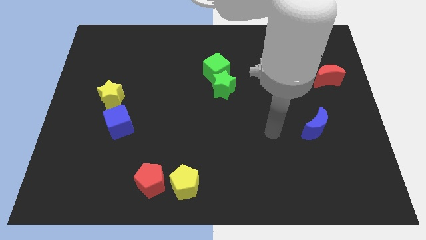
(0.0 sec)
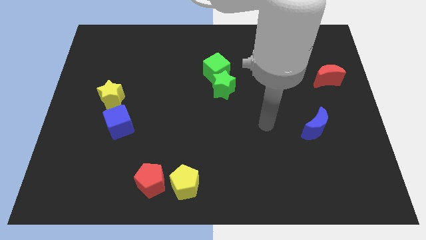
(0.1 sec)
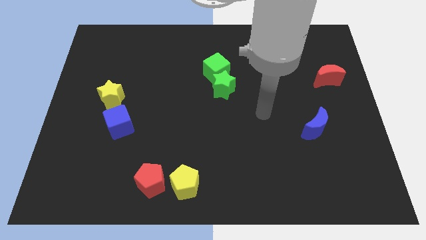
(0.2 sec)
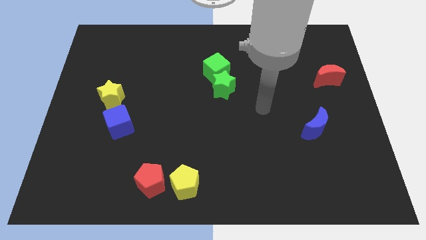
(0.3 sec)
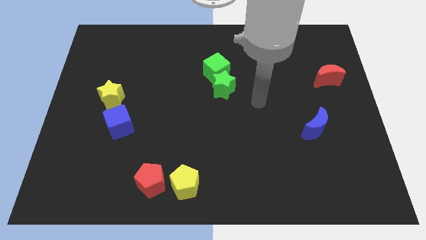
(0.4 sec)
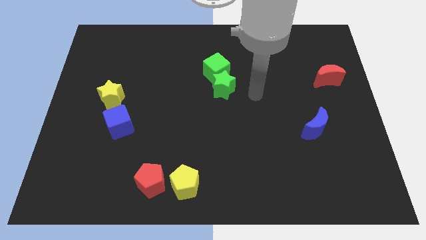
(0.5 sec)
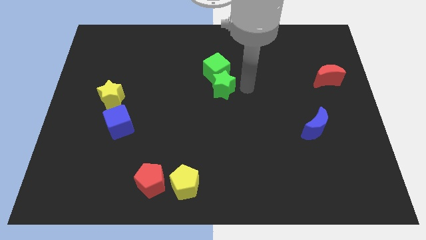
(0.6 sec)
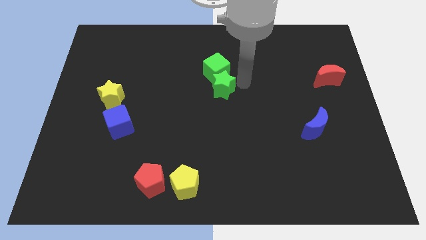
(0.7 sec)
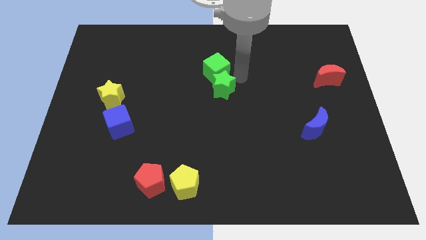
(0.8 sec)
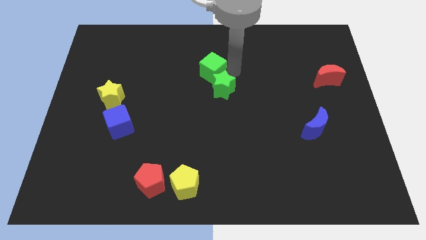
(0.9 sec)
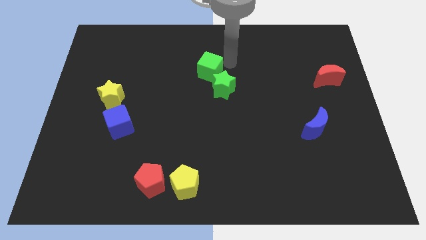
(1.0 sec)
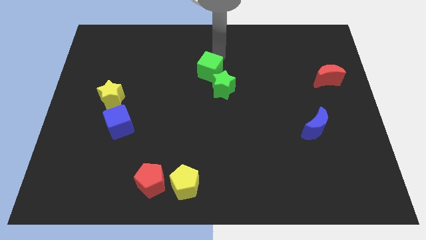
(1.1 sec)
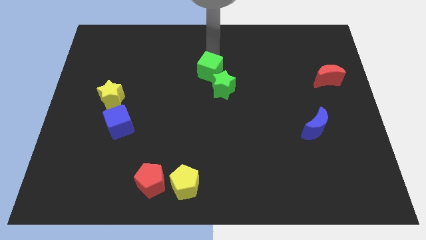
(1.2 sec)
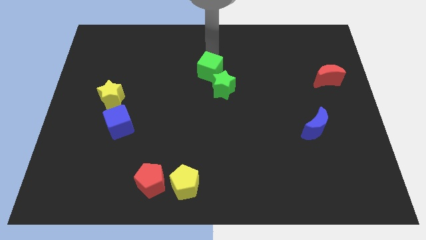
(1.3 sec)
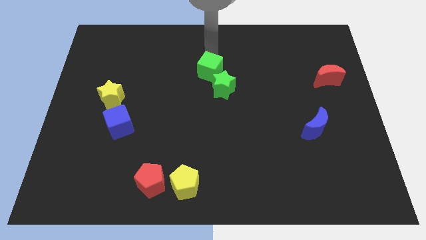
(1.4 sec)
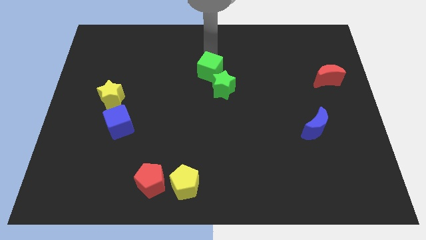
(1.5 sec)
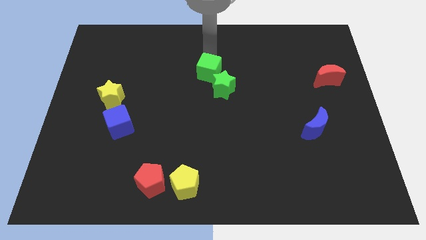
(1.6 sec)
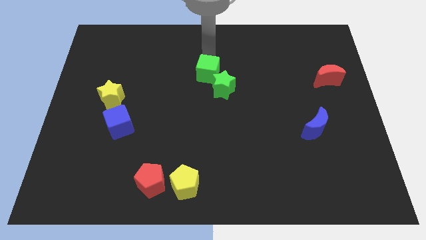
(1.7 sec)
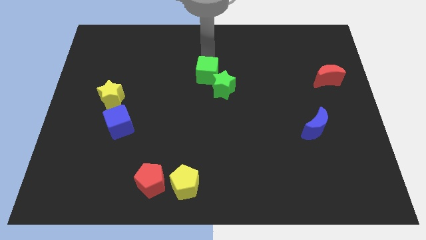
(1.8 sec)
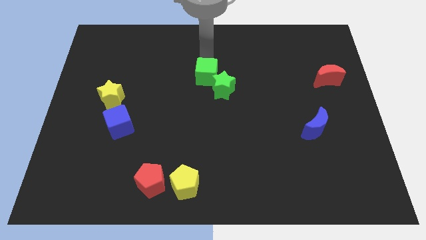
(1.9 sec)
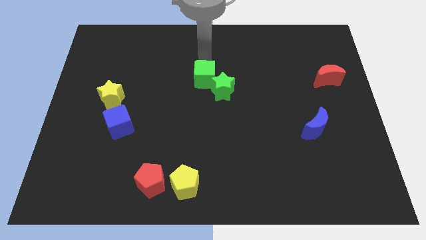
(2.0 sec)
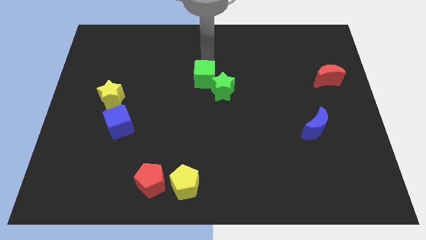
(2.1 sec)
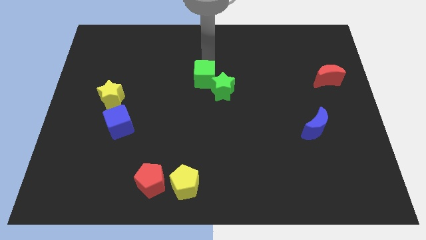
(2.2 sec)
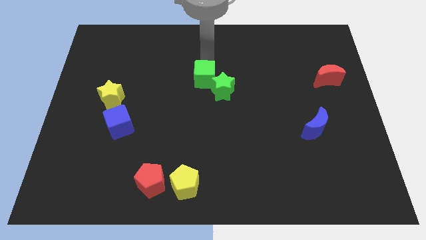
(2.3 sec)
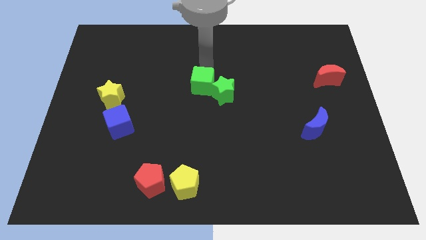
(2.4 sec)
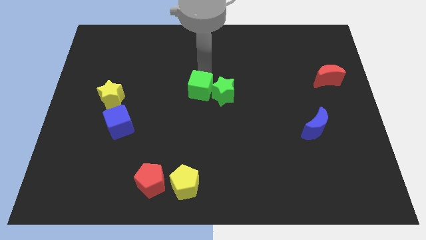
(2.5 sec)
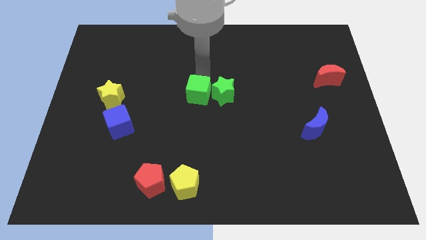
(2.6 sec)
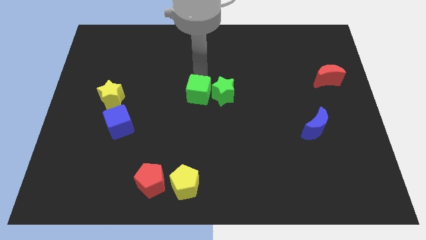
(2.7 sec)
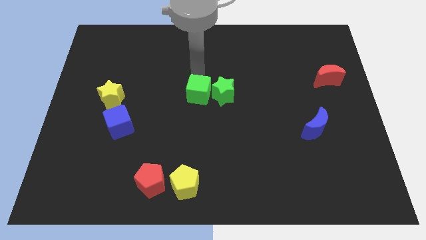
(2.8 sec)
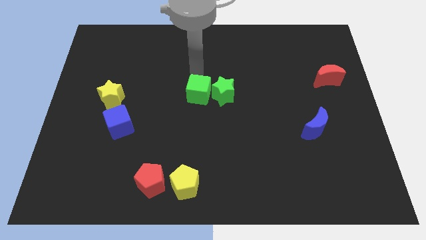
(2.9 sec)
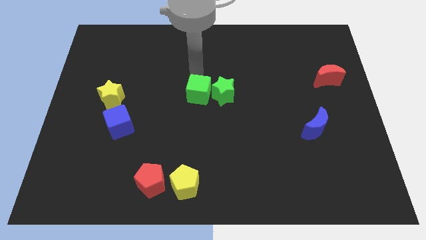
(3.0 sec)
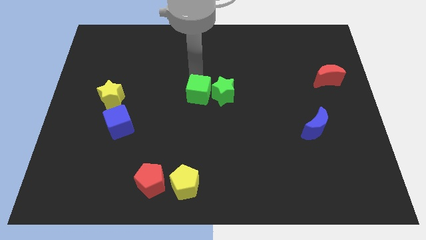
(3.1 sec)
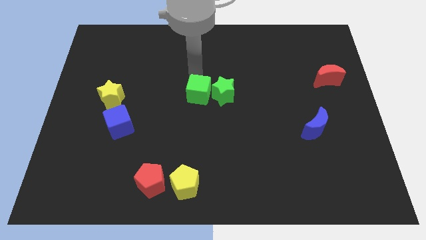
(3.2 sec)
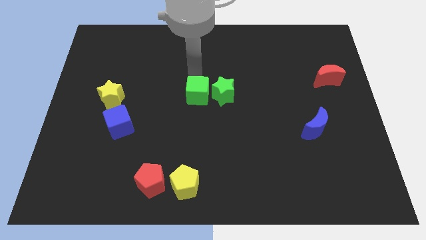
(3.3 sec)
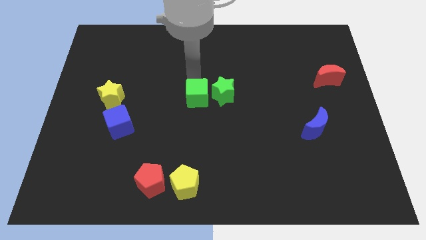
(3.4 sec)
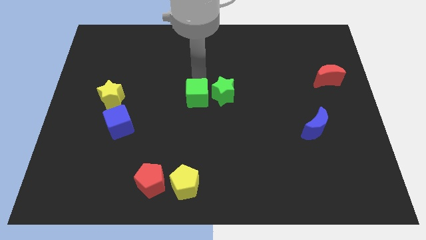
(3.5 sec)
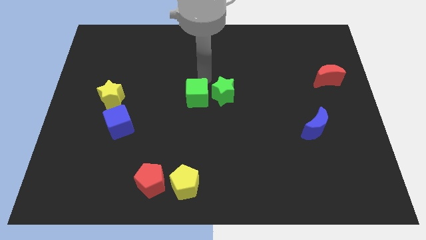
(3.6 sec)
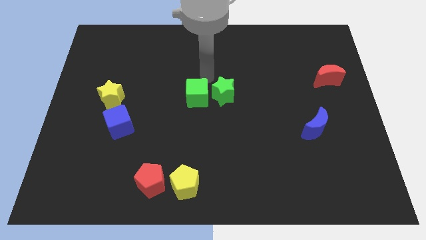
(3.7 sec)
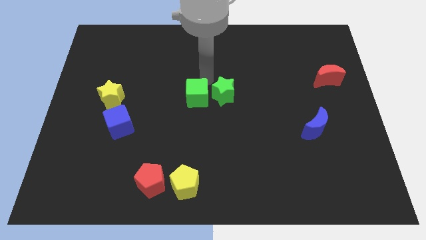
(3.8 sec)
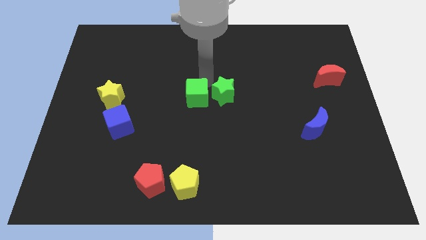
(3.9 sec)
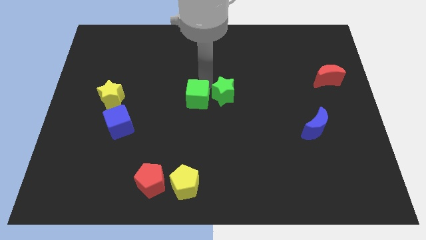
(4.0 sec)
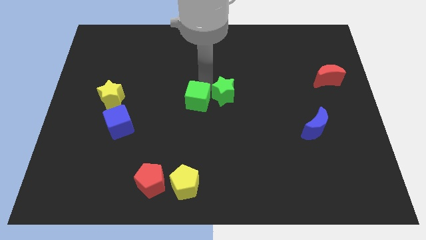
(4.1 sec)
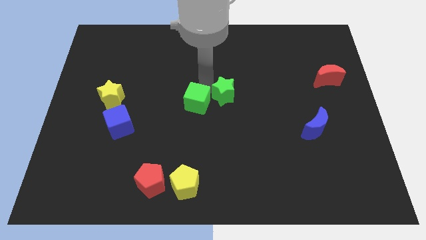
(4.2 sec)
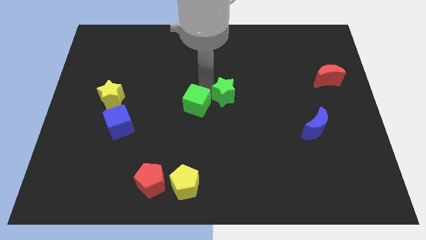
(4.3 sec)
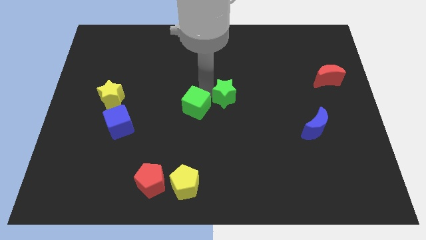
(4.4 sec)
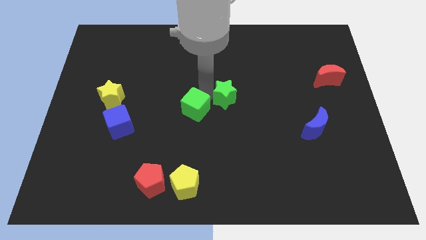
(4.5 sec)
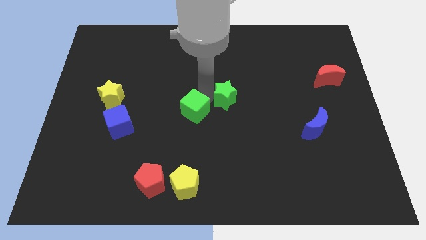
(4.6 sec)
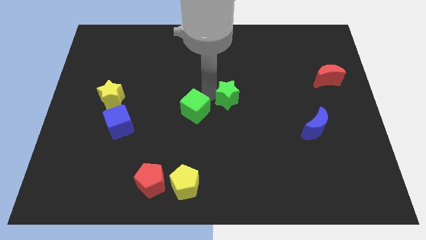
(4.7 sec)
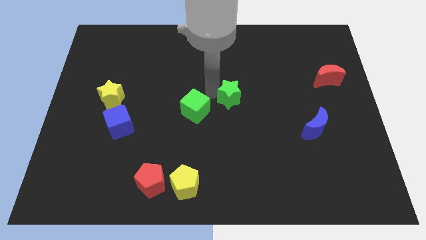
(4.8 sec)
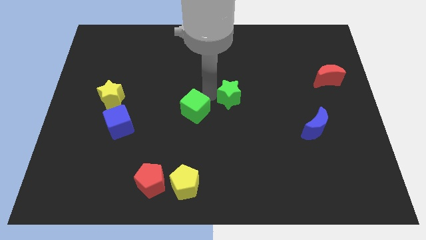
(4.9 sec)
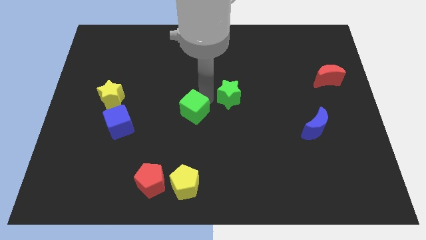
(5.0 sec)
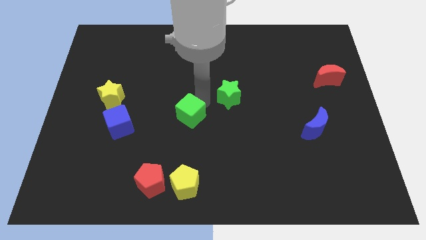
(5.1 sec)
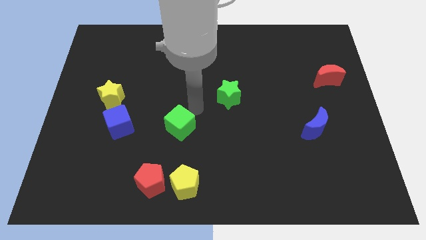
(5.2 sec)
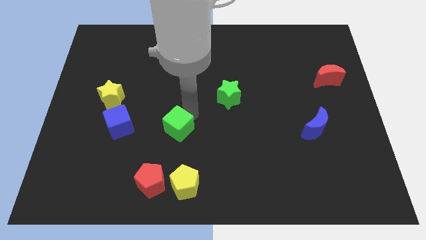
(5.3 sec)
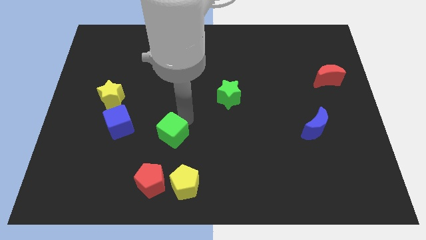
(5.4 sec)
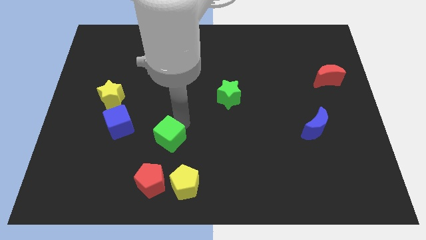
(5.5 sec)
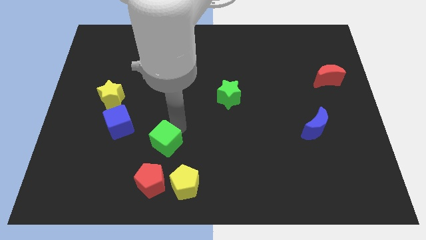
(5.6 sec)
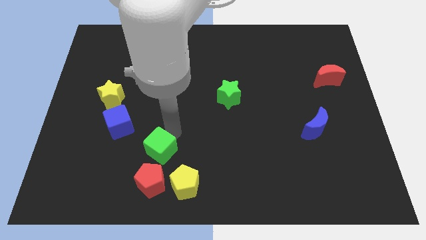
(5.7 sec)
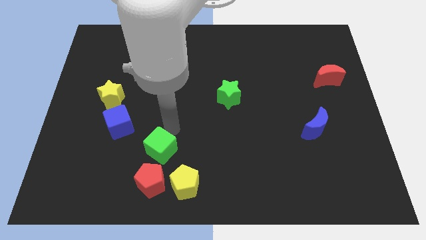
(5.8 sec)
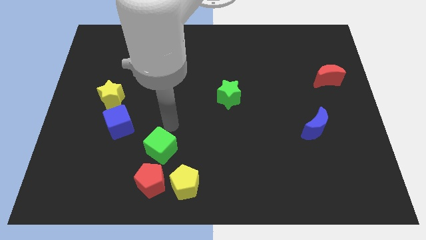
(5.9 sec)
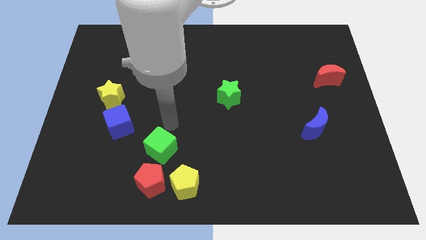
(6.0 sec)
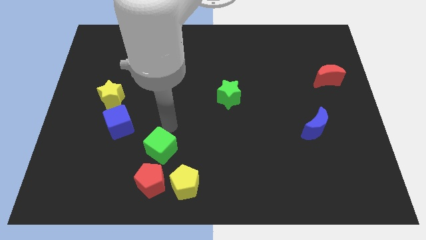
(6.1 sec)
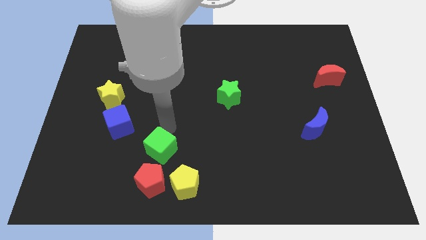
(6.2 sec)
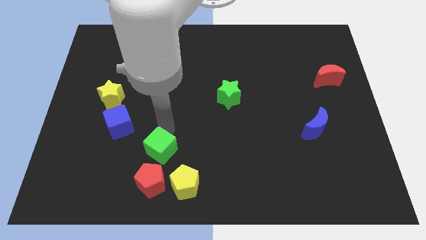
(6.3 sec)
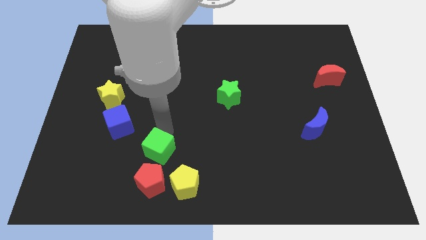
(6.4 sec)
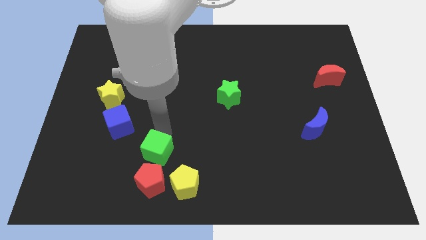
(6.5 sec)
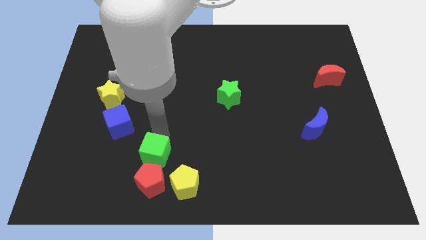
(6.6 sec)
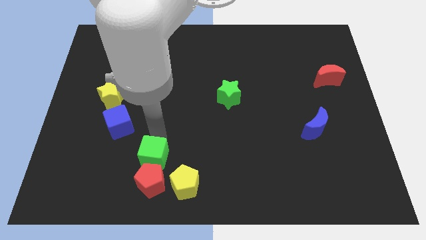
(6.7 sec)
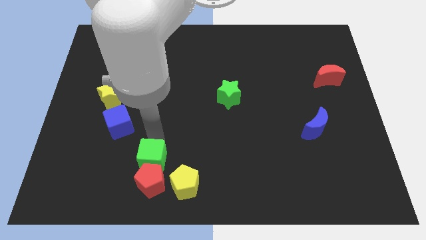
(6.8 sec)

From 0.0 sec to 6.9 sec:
put the green cube next to the red pentagon

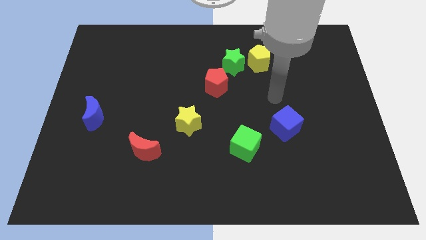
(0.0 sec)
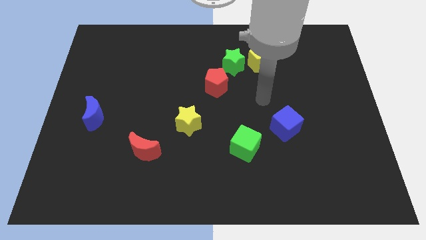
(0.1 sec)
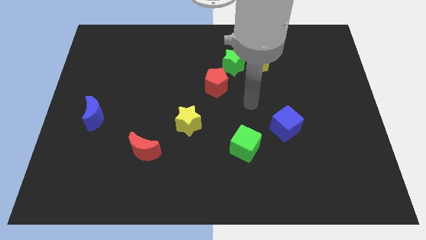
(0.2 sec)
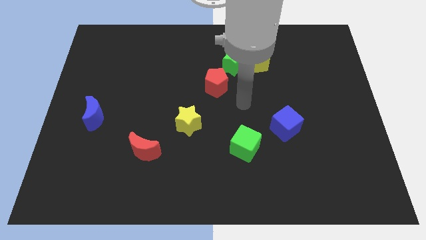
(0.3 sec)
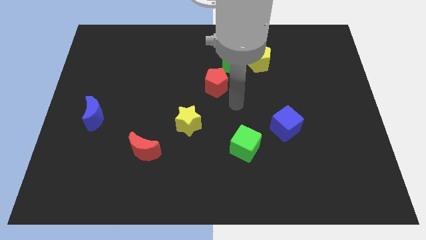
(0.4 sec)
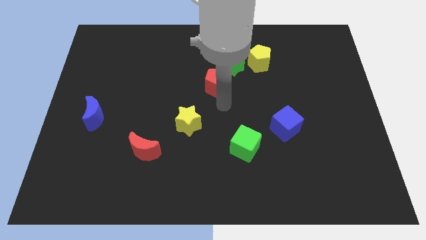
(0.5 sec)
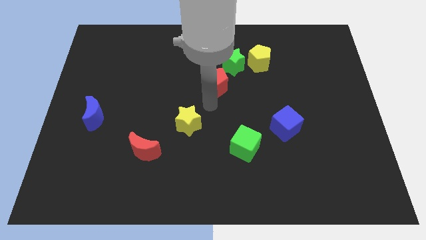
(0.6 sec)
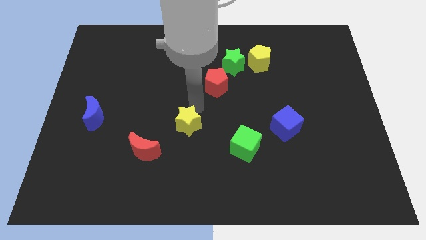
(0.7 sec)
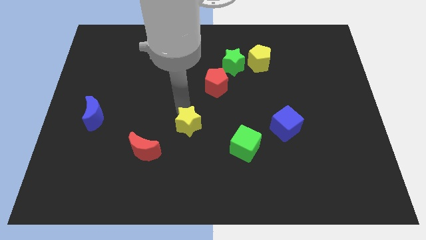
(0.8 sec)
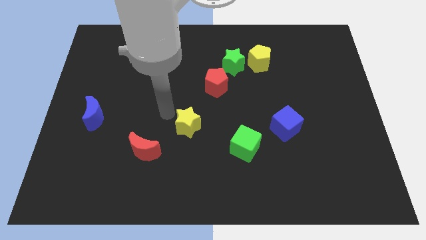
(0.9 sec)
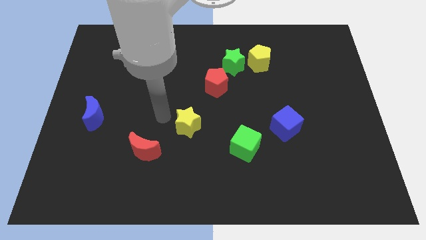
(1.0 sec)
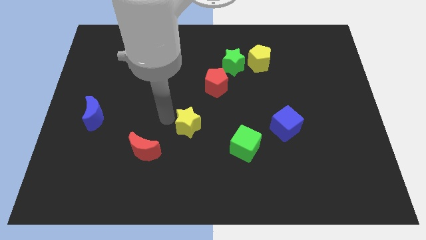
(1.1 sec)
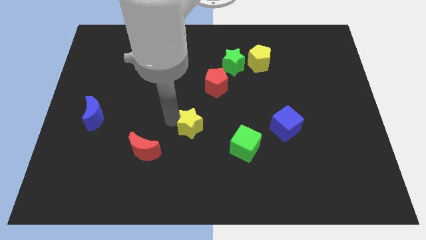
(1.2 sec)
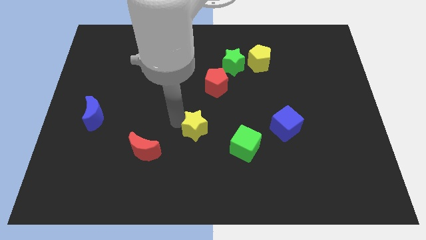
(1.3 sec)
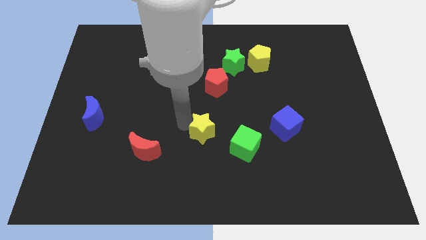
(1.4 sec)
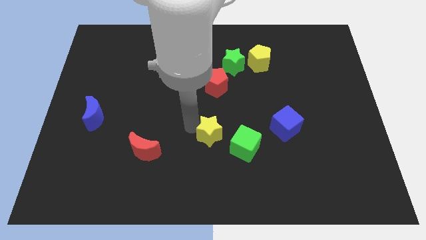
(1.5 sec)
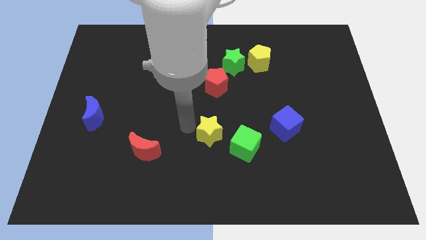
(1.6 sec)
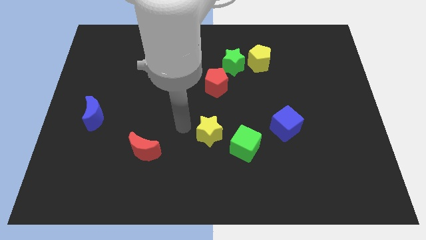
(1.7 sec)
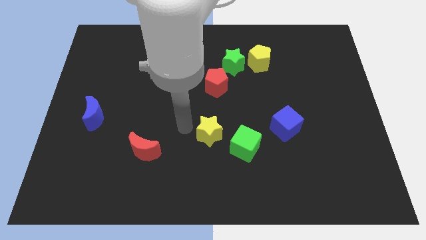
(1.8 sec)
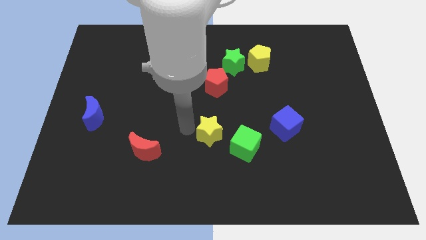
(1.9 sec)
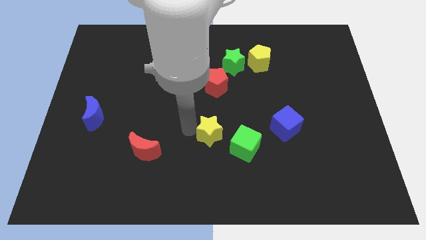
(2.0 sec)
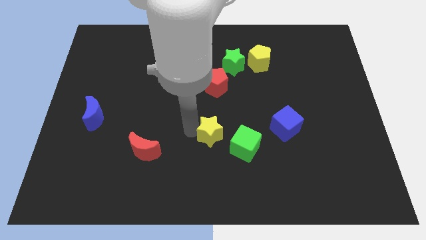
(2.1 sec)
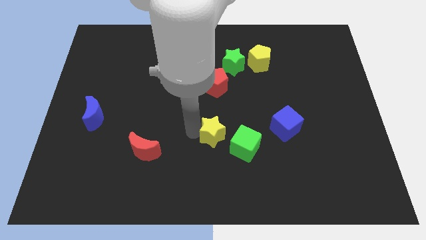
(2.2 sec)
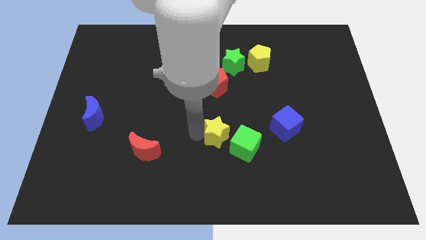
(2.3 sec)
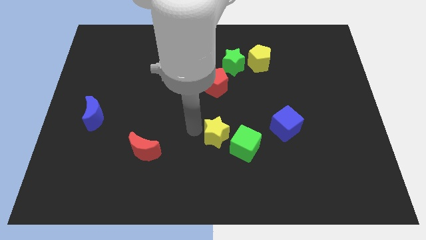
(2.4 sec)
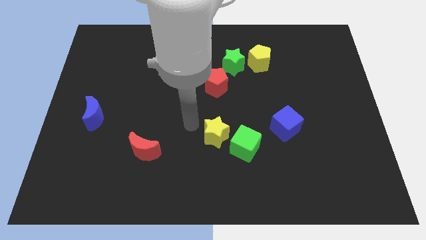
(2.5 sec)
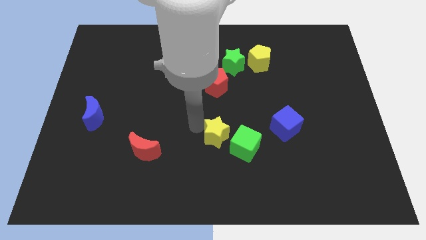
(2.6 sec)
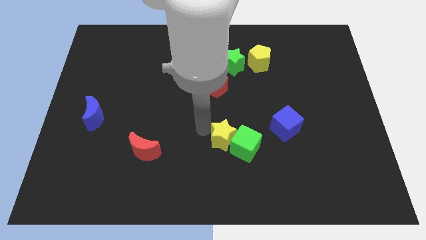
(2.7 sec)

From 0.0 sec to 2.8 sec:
move the yellow star towards the green cube
